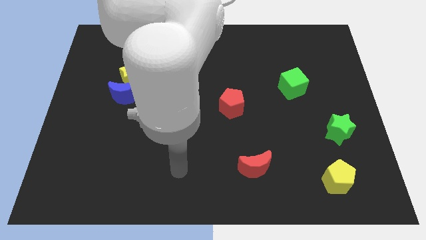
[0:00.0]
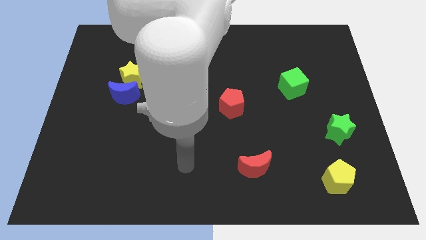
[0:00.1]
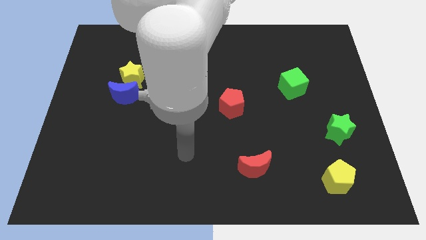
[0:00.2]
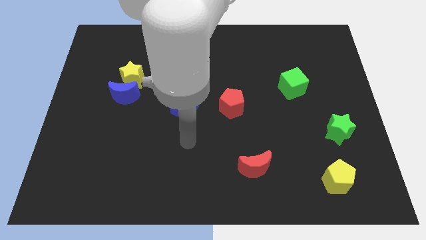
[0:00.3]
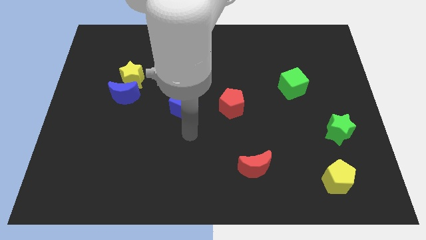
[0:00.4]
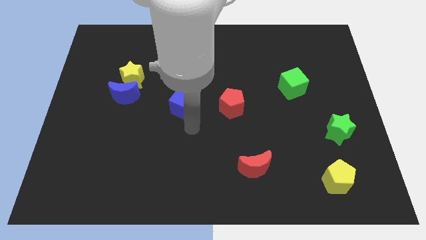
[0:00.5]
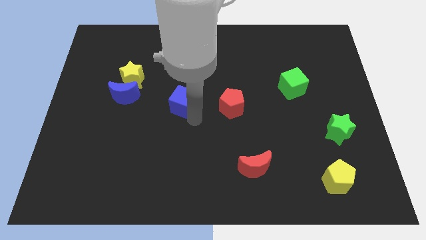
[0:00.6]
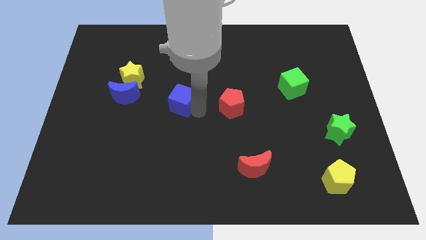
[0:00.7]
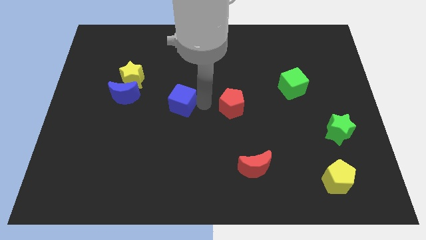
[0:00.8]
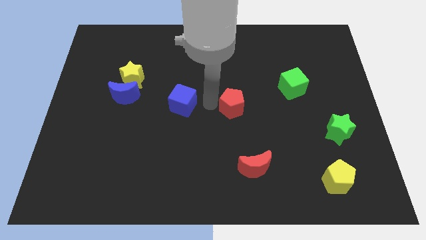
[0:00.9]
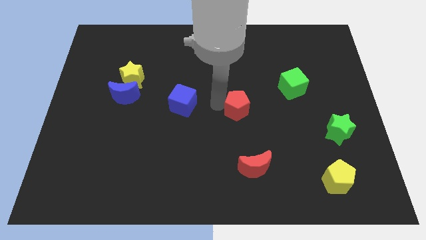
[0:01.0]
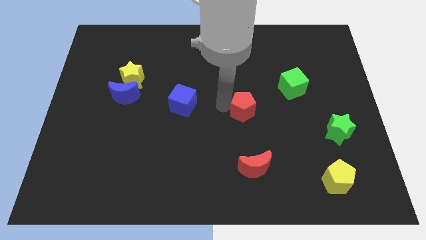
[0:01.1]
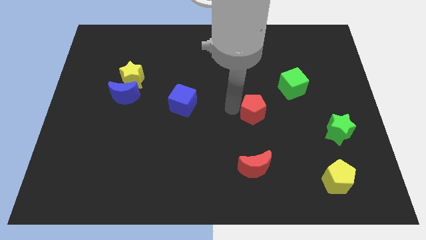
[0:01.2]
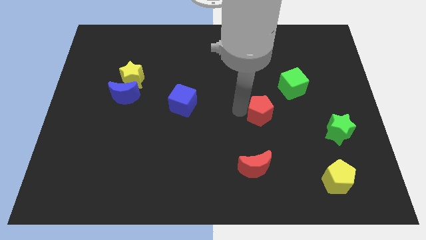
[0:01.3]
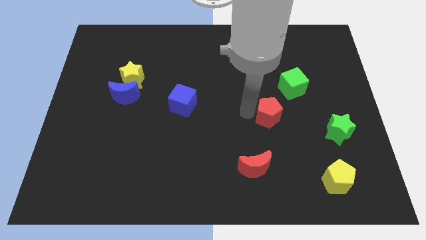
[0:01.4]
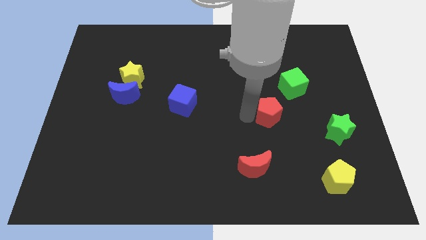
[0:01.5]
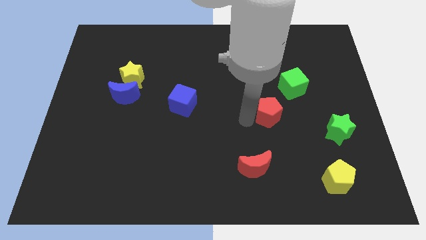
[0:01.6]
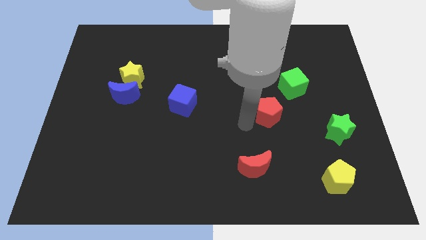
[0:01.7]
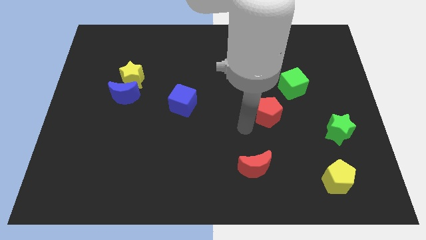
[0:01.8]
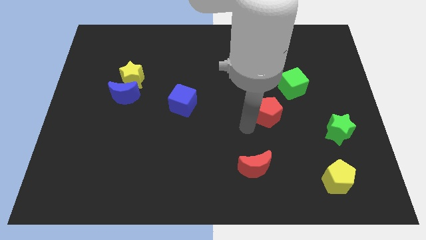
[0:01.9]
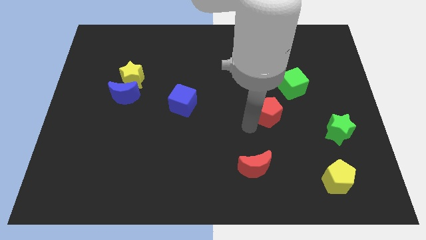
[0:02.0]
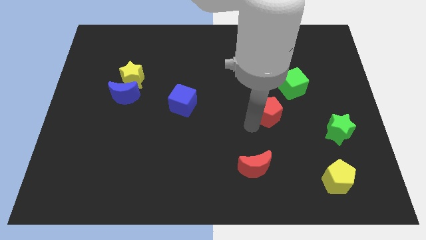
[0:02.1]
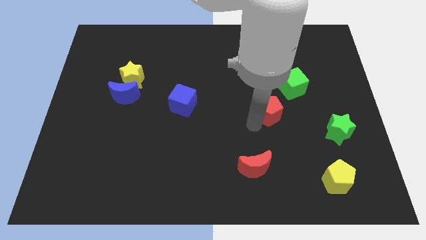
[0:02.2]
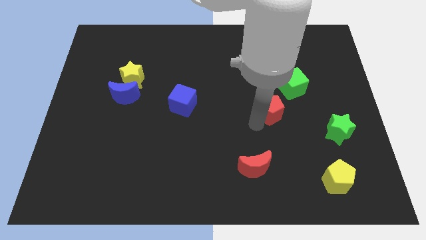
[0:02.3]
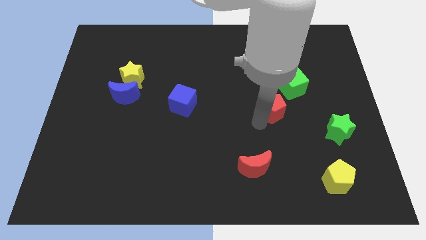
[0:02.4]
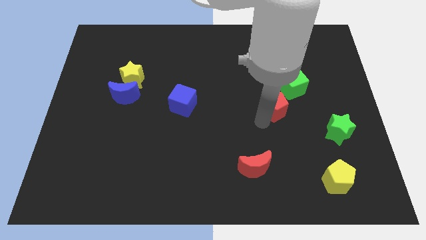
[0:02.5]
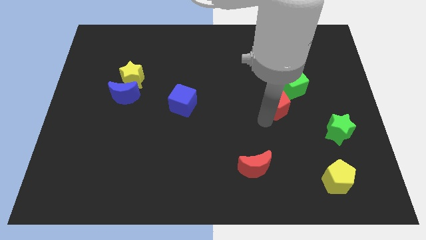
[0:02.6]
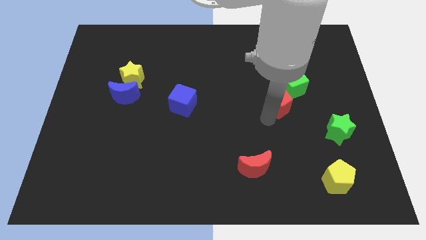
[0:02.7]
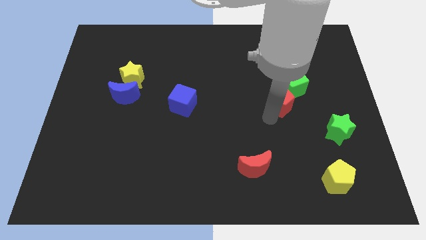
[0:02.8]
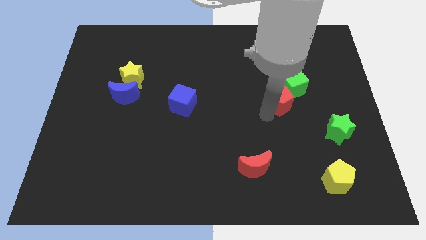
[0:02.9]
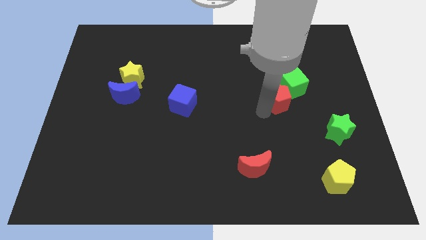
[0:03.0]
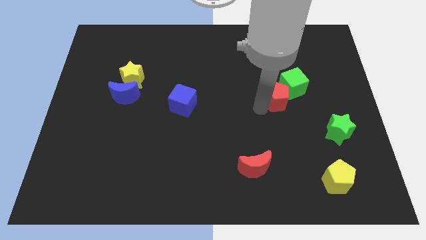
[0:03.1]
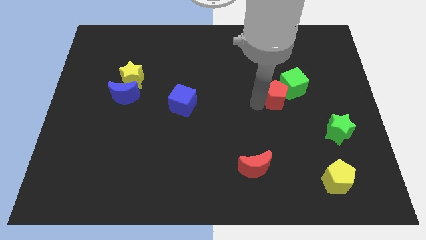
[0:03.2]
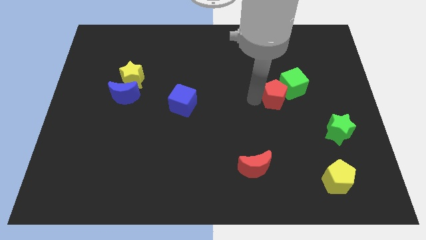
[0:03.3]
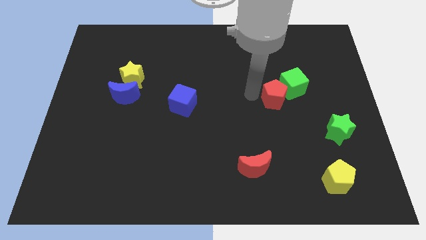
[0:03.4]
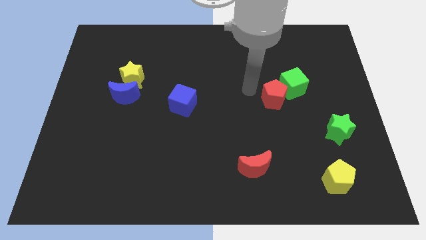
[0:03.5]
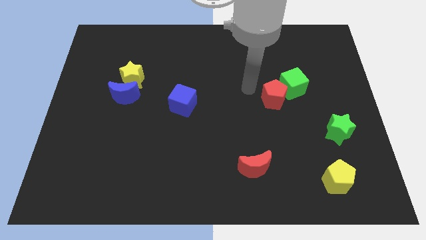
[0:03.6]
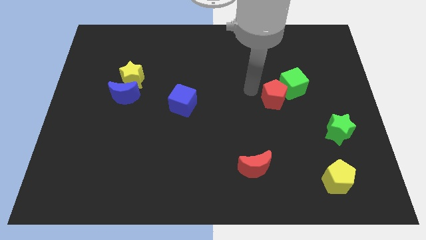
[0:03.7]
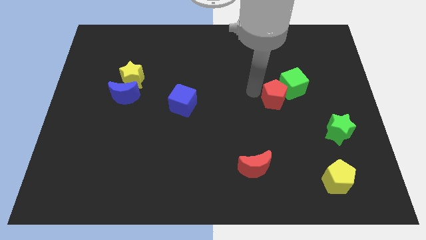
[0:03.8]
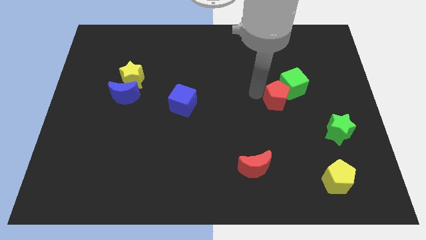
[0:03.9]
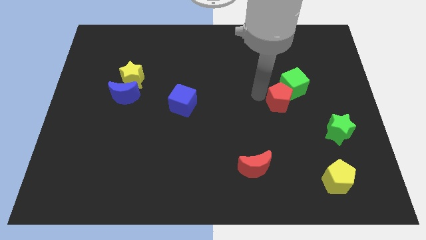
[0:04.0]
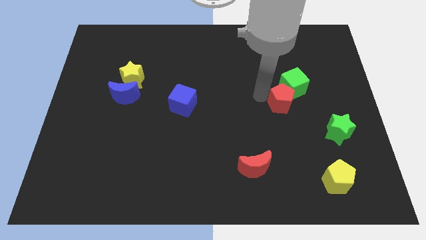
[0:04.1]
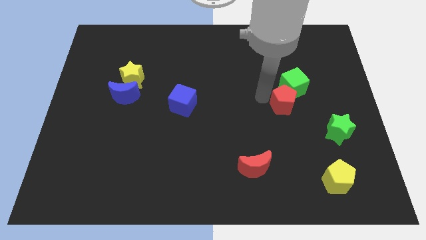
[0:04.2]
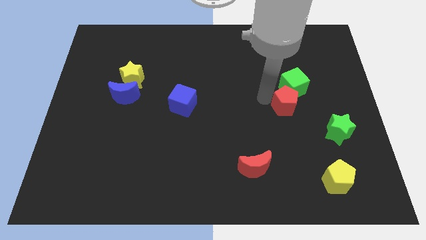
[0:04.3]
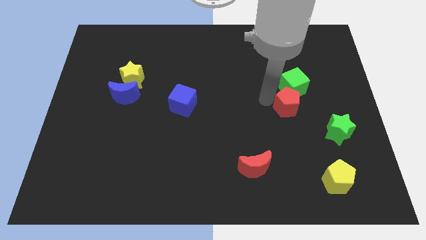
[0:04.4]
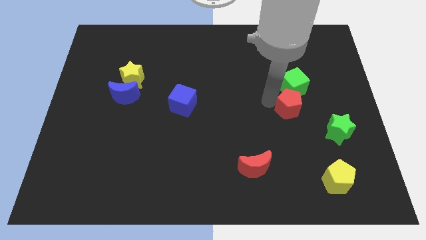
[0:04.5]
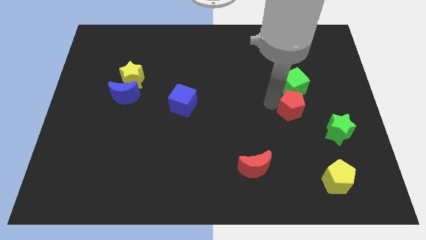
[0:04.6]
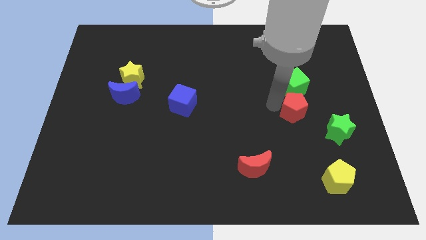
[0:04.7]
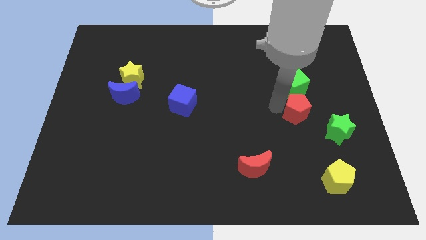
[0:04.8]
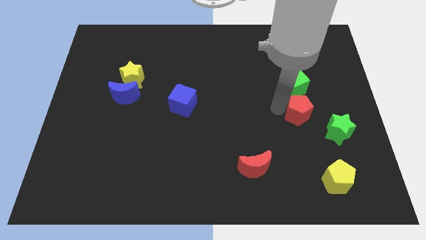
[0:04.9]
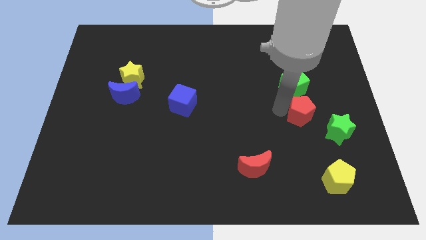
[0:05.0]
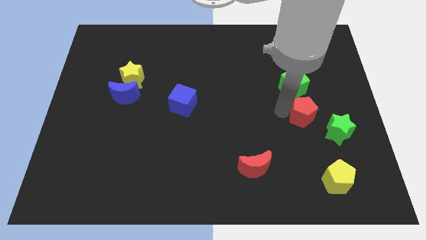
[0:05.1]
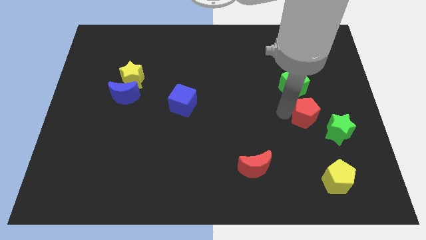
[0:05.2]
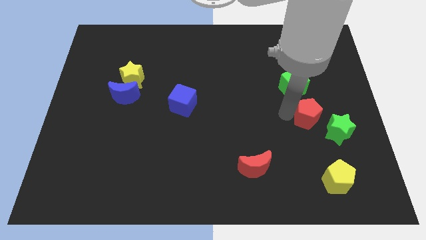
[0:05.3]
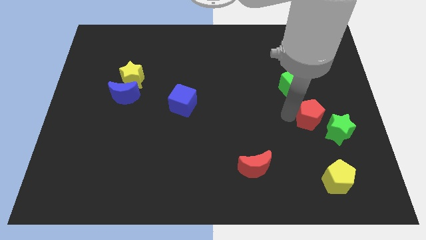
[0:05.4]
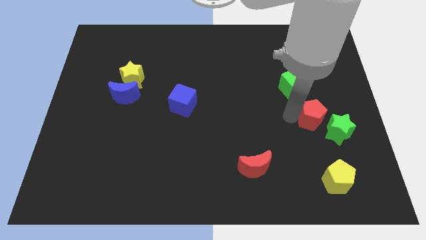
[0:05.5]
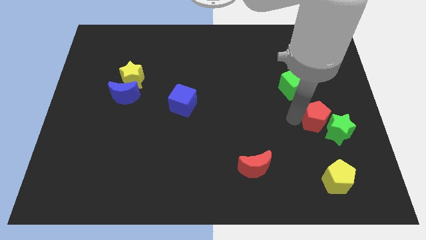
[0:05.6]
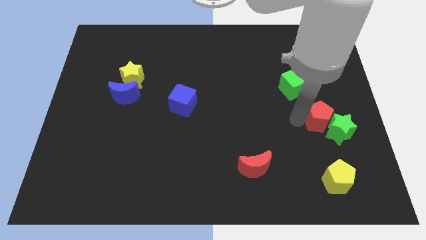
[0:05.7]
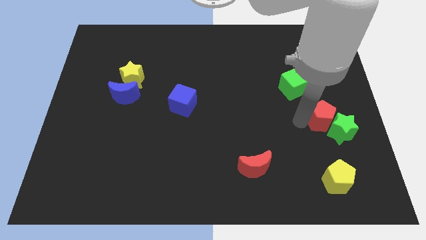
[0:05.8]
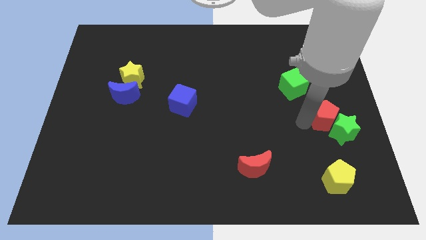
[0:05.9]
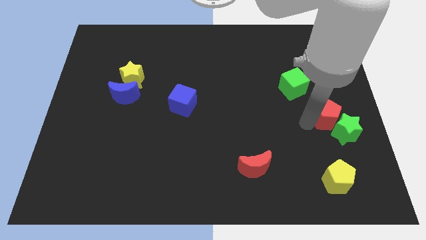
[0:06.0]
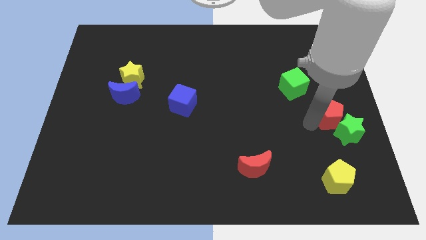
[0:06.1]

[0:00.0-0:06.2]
move the red pentagon to the right side of the board

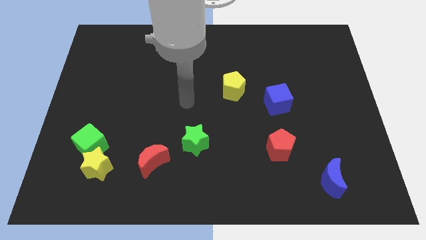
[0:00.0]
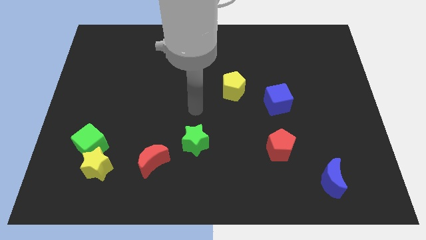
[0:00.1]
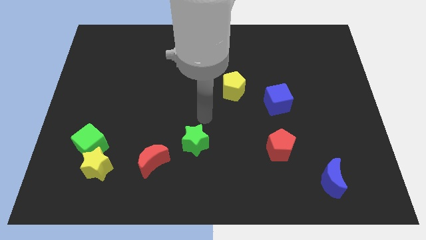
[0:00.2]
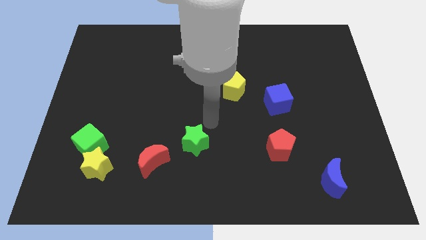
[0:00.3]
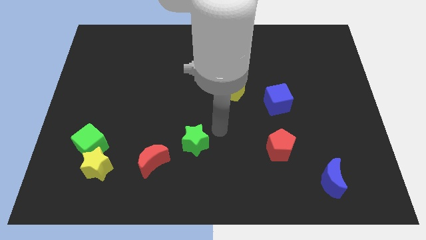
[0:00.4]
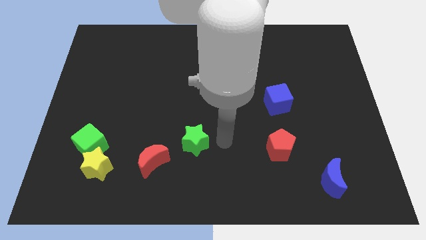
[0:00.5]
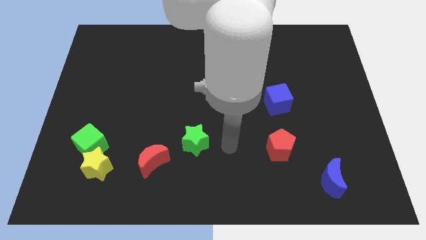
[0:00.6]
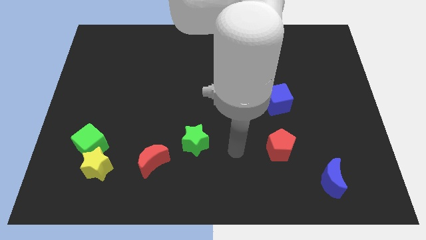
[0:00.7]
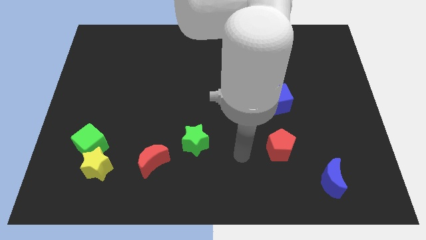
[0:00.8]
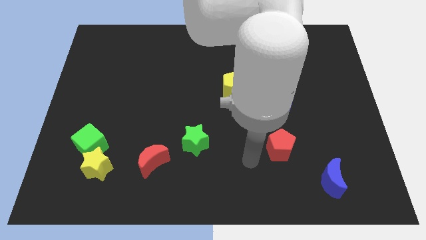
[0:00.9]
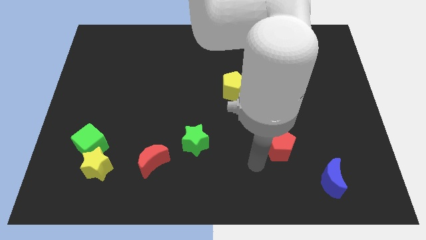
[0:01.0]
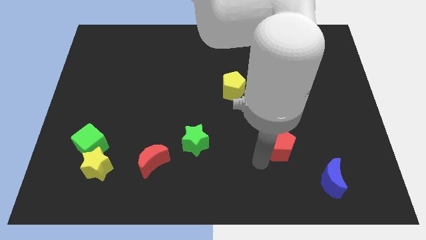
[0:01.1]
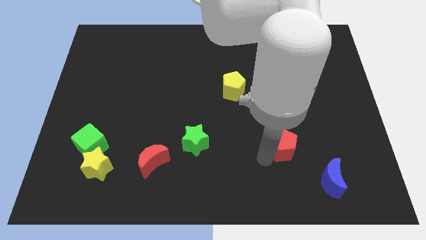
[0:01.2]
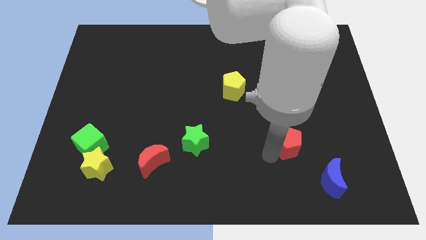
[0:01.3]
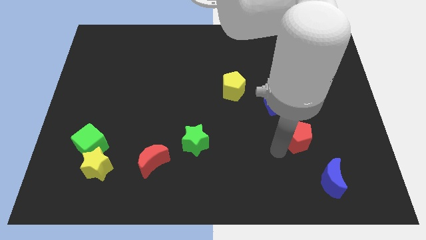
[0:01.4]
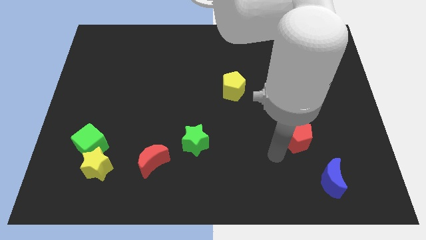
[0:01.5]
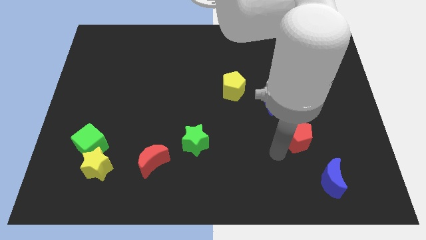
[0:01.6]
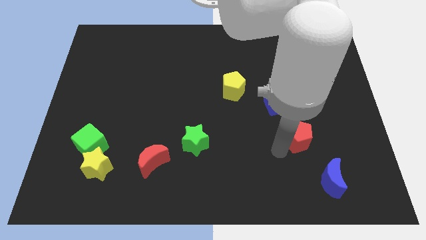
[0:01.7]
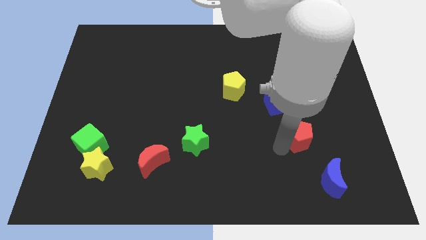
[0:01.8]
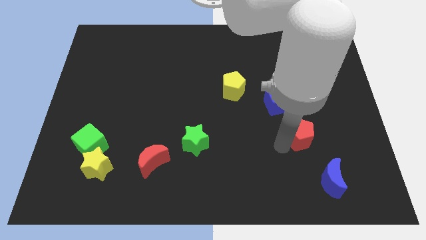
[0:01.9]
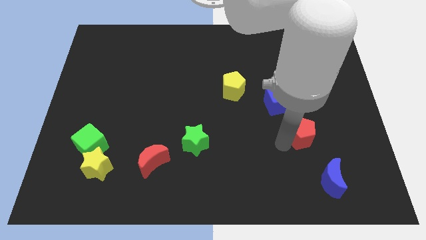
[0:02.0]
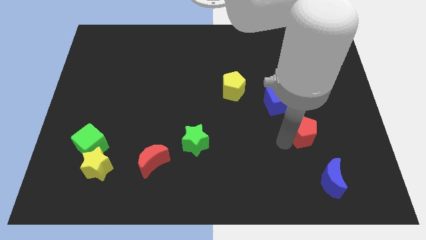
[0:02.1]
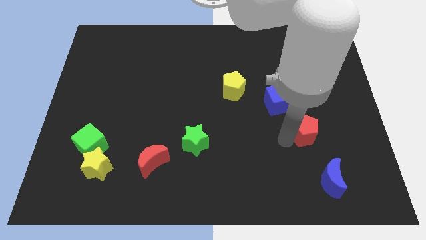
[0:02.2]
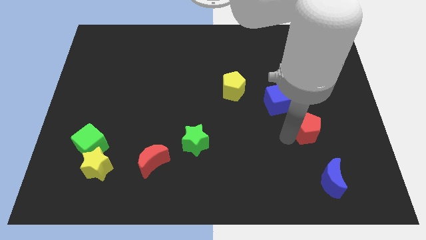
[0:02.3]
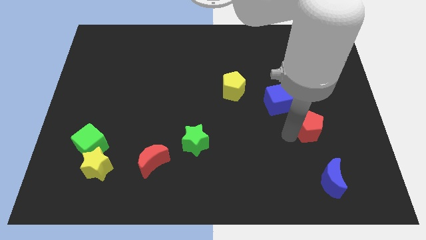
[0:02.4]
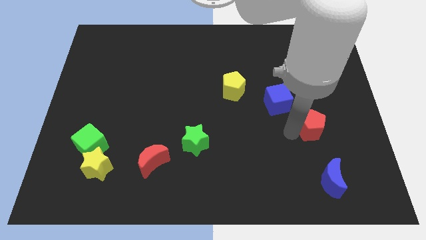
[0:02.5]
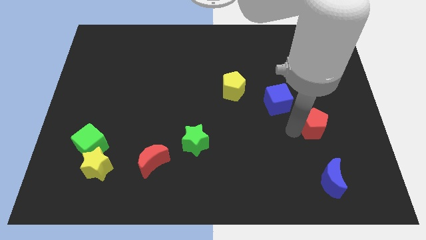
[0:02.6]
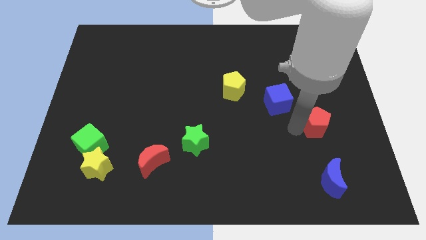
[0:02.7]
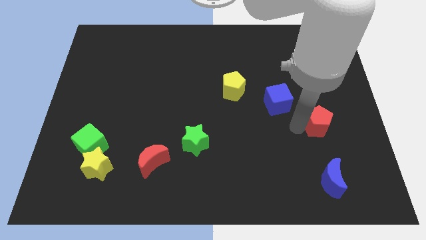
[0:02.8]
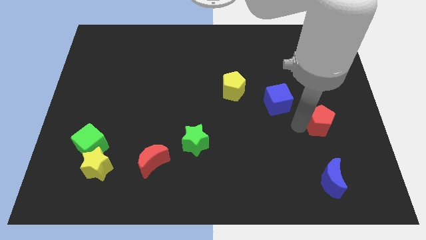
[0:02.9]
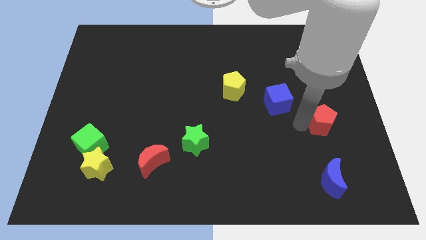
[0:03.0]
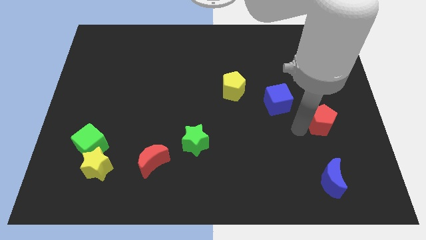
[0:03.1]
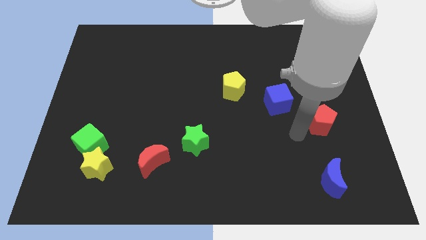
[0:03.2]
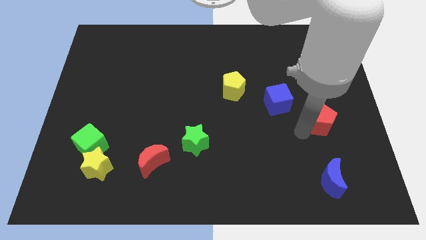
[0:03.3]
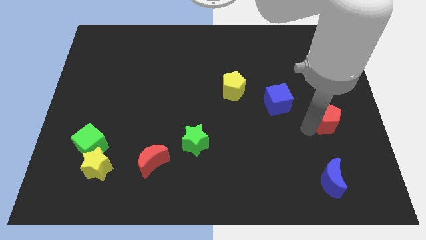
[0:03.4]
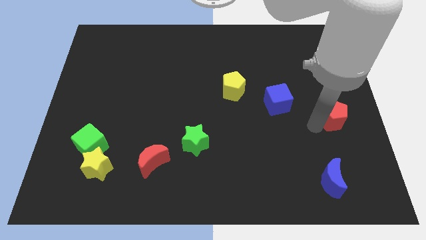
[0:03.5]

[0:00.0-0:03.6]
slide the red pentagon to the center right
